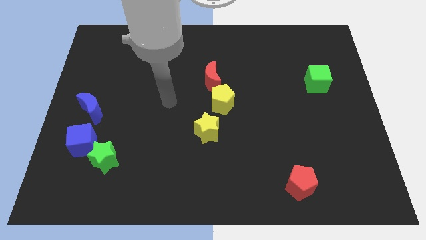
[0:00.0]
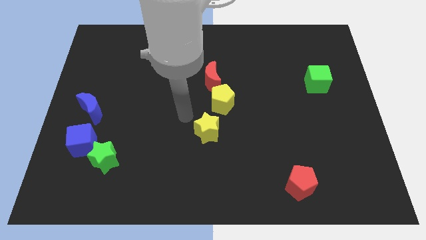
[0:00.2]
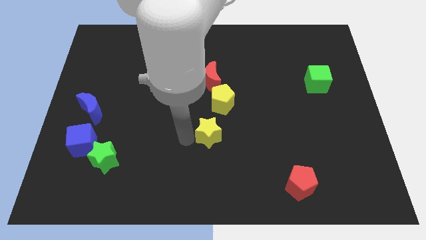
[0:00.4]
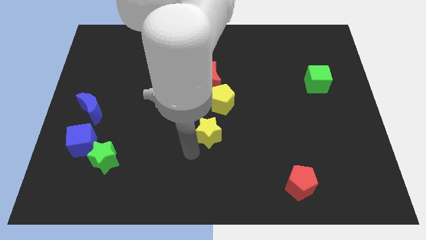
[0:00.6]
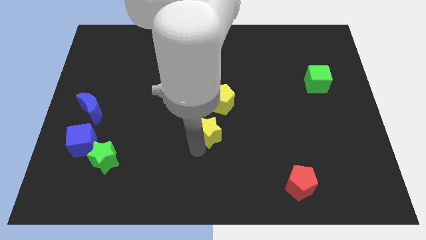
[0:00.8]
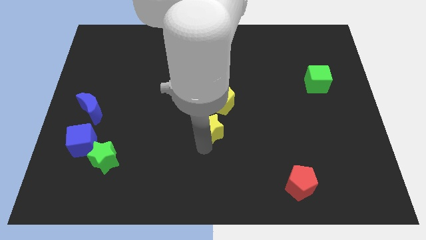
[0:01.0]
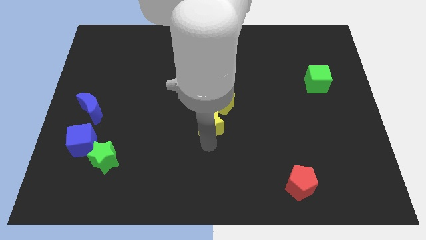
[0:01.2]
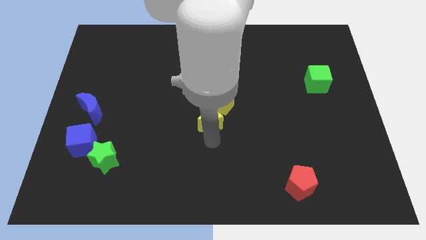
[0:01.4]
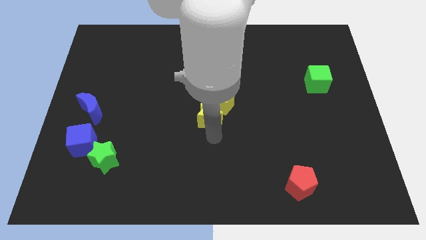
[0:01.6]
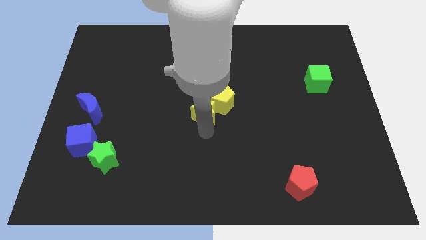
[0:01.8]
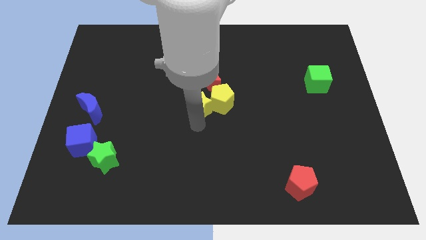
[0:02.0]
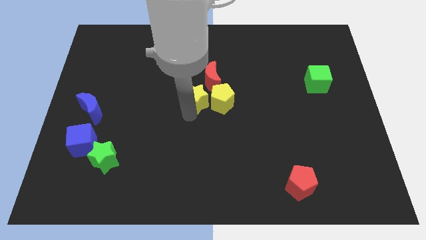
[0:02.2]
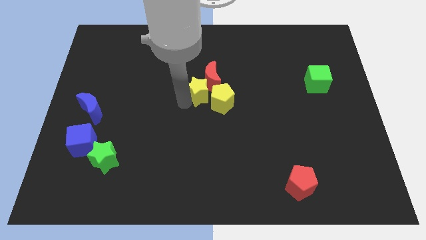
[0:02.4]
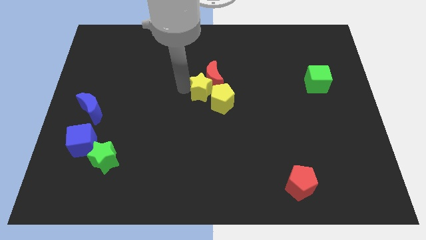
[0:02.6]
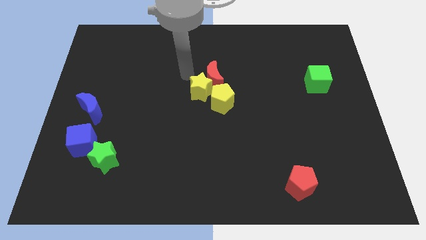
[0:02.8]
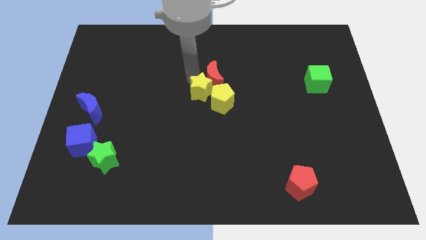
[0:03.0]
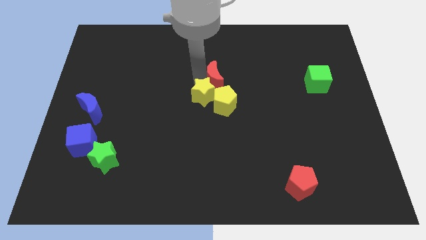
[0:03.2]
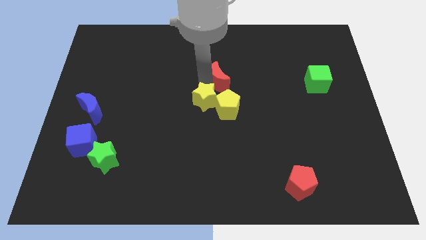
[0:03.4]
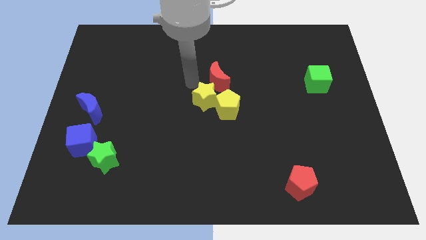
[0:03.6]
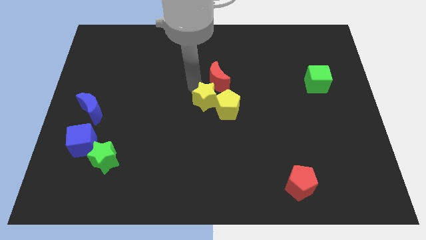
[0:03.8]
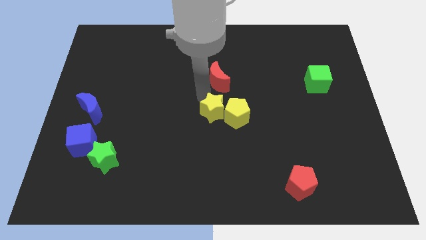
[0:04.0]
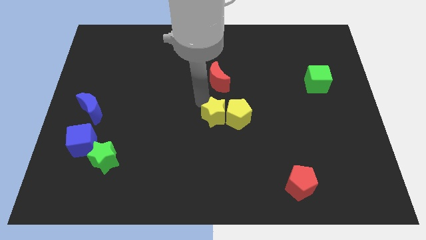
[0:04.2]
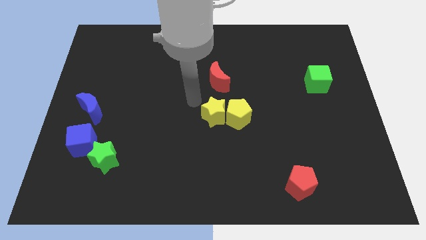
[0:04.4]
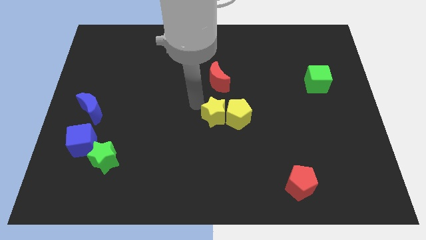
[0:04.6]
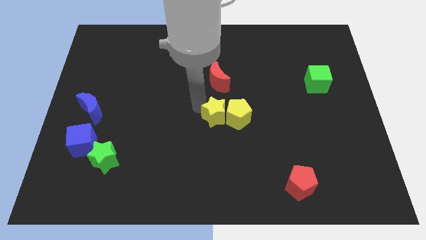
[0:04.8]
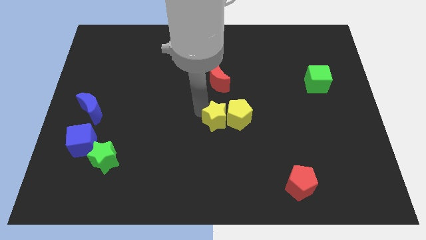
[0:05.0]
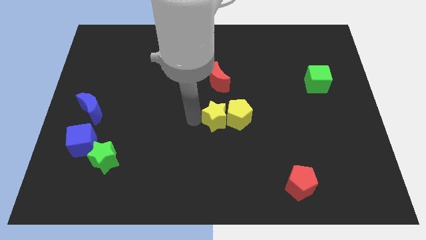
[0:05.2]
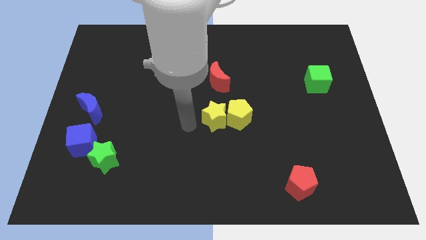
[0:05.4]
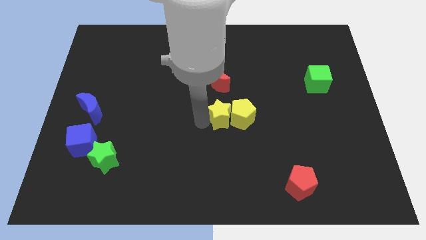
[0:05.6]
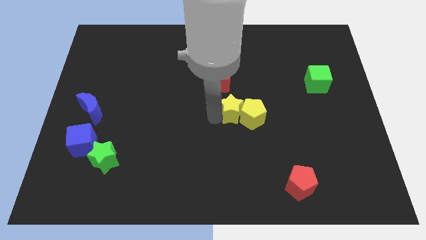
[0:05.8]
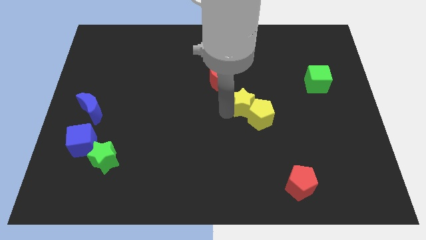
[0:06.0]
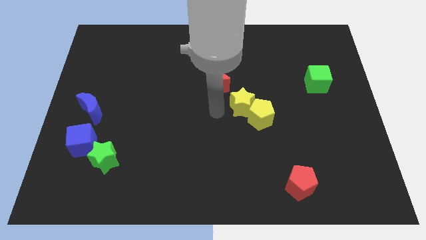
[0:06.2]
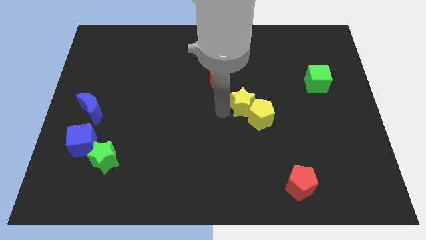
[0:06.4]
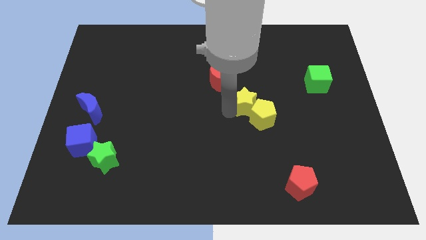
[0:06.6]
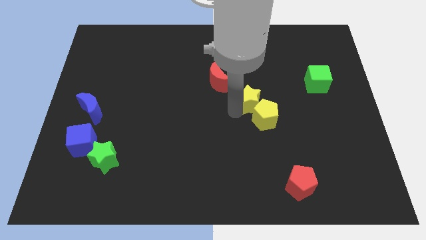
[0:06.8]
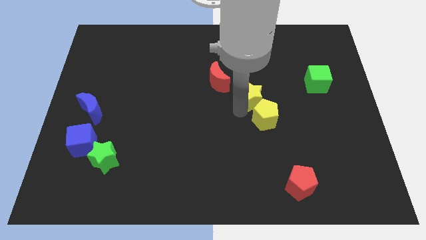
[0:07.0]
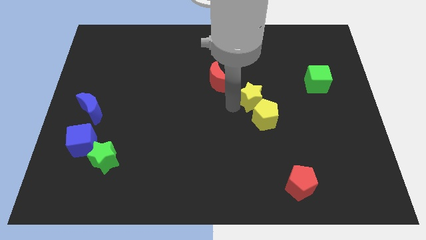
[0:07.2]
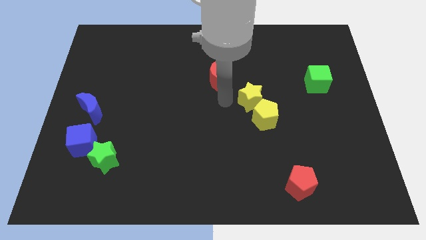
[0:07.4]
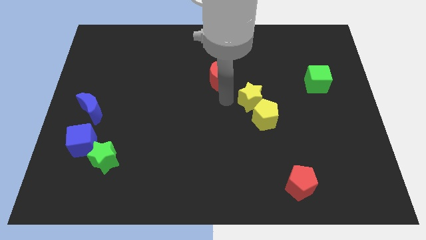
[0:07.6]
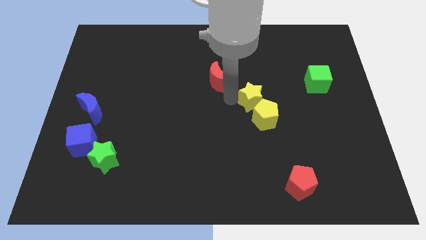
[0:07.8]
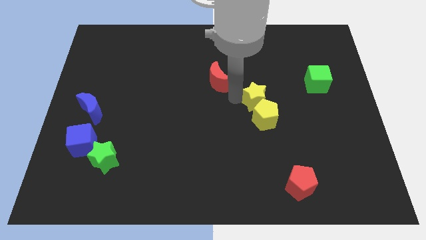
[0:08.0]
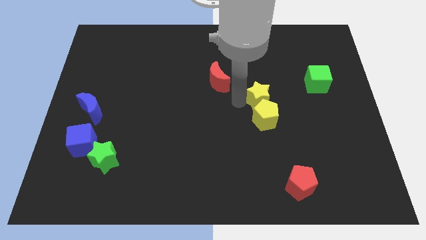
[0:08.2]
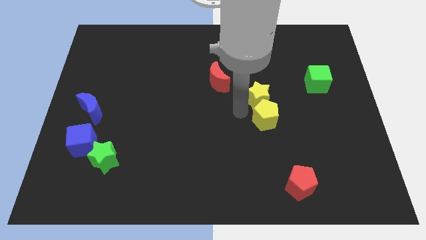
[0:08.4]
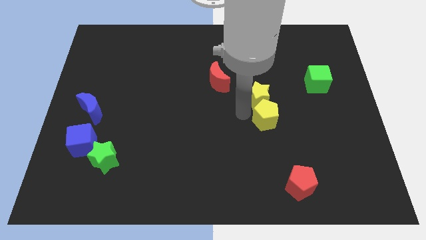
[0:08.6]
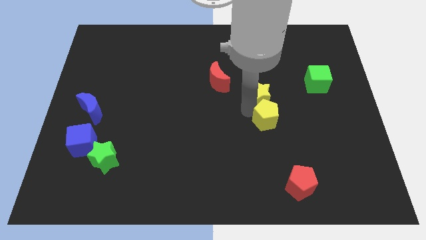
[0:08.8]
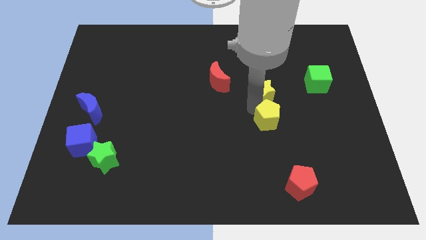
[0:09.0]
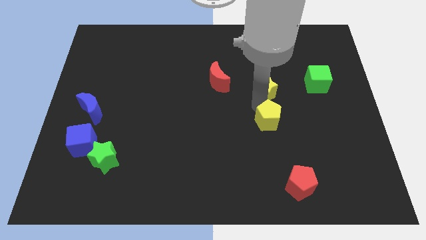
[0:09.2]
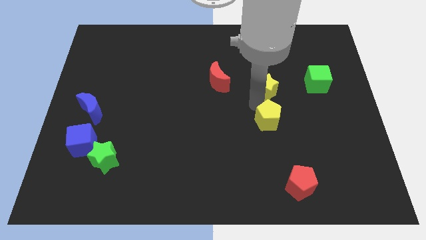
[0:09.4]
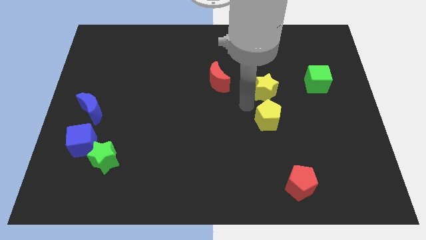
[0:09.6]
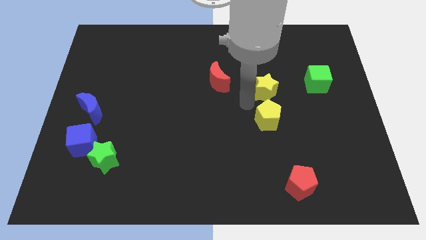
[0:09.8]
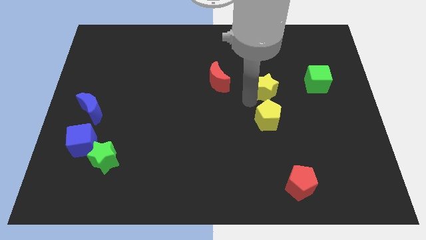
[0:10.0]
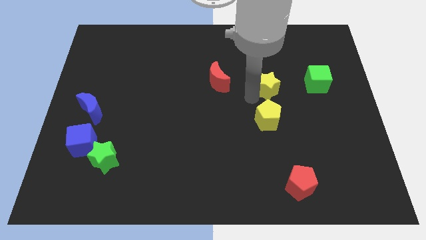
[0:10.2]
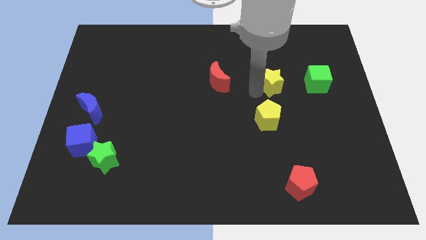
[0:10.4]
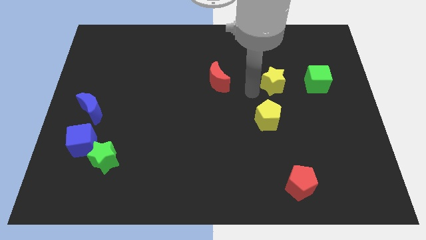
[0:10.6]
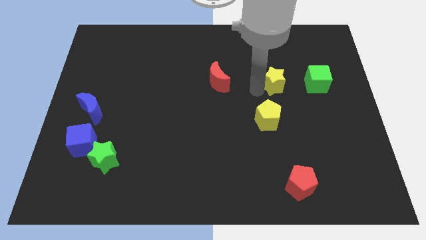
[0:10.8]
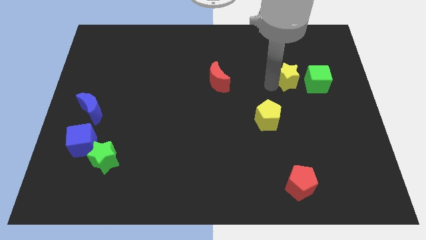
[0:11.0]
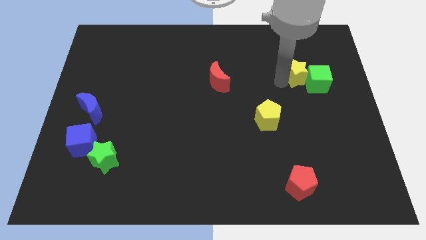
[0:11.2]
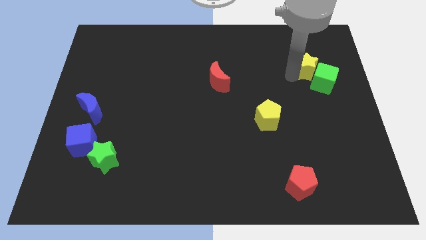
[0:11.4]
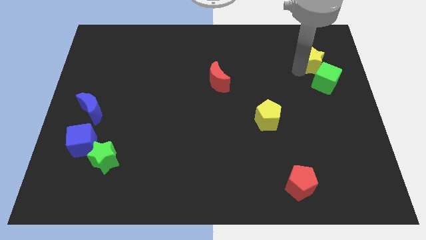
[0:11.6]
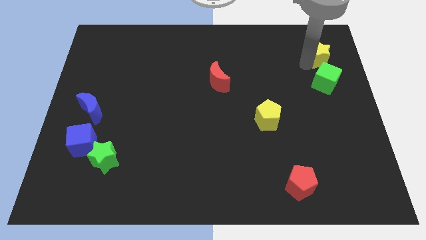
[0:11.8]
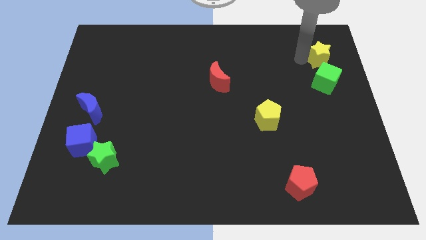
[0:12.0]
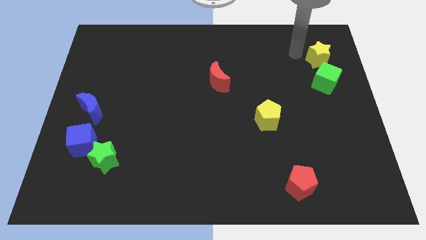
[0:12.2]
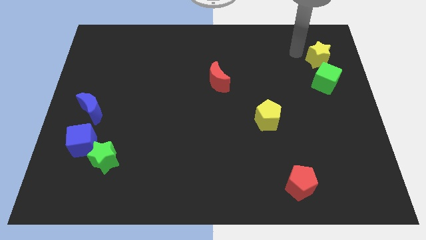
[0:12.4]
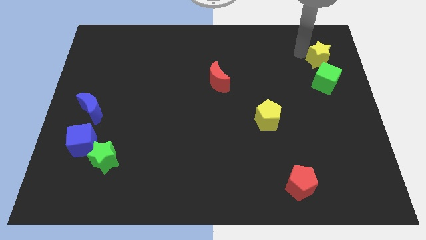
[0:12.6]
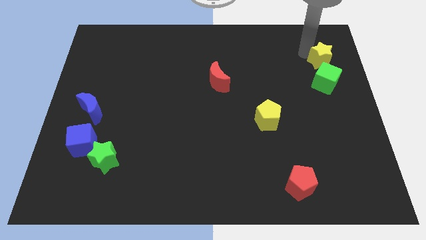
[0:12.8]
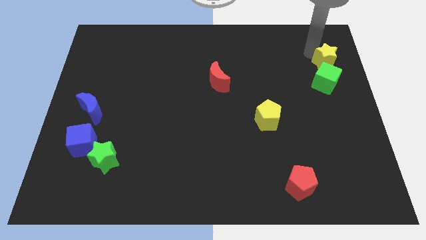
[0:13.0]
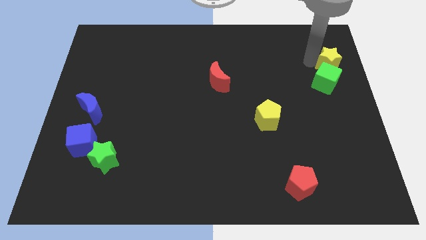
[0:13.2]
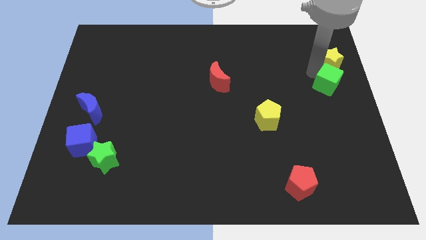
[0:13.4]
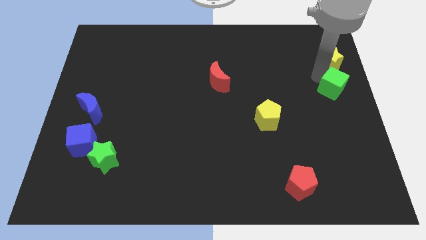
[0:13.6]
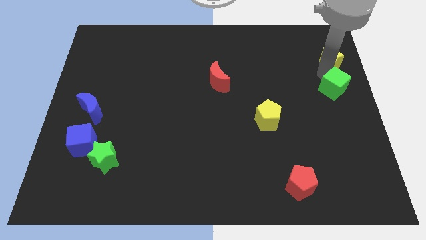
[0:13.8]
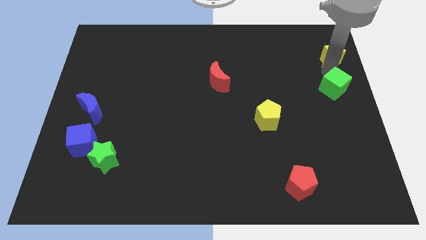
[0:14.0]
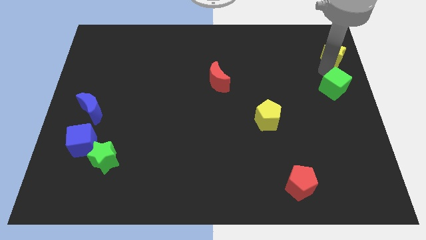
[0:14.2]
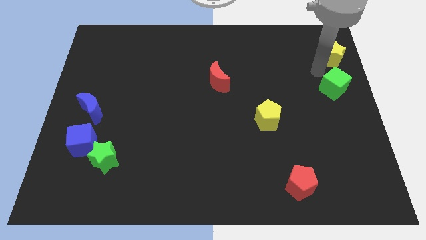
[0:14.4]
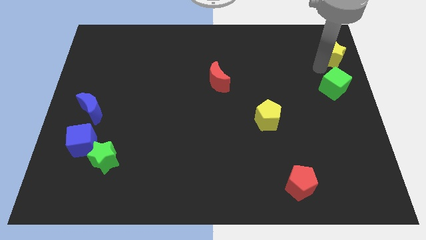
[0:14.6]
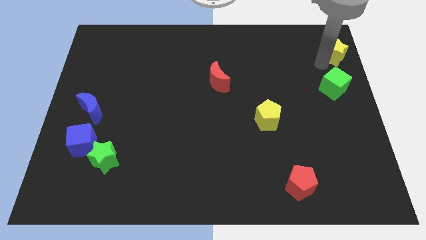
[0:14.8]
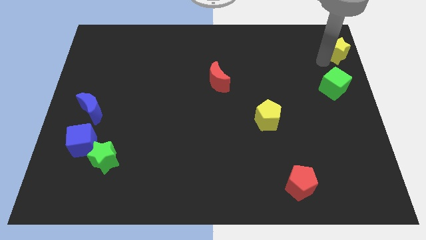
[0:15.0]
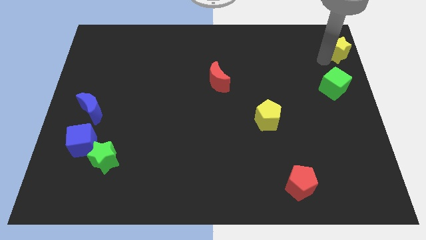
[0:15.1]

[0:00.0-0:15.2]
move the yellow star to the upper right corner

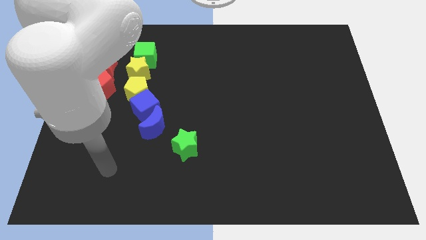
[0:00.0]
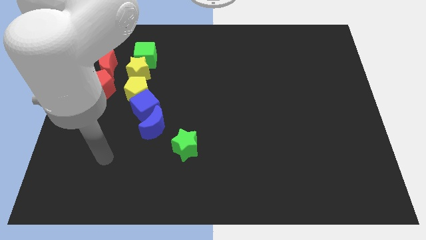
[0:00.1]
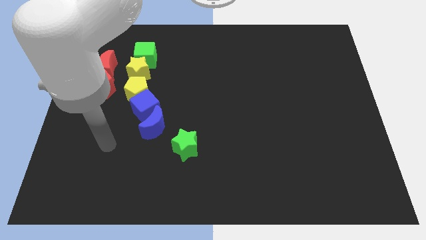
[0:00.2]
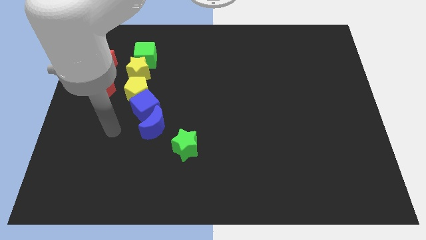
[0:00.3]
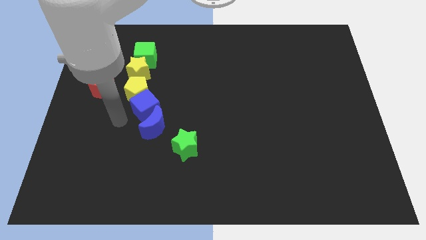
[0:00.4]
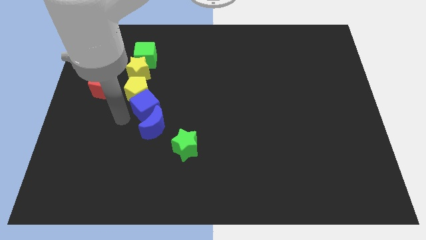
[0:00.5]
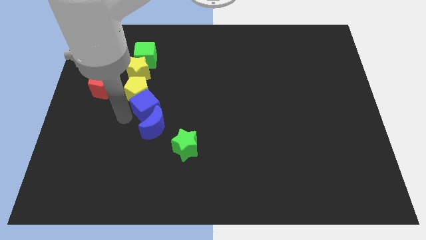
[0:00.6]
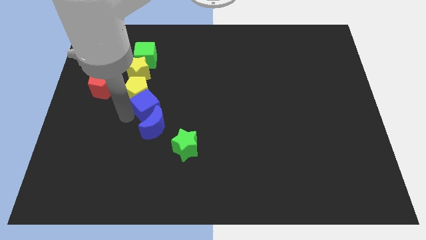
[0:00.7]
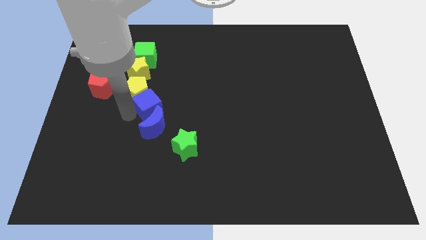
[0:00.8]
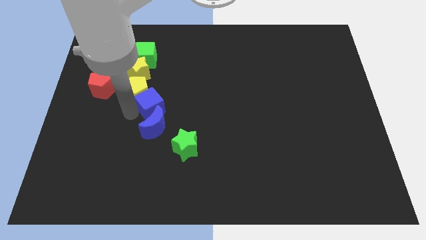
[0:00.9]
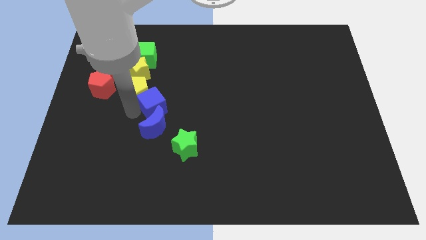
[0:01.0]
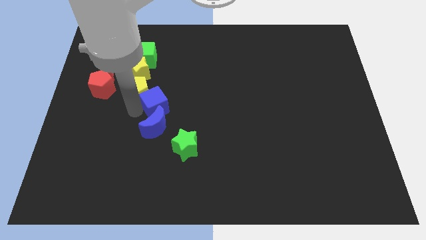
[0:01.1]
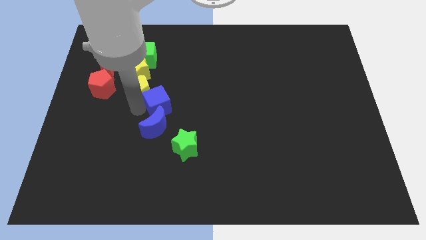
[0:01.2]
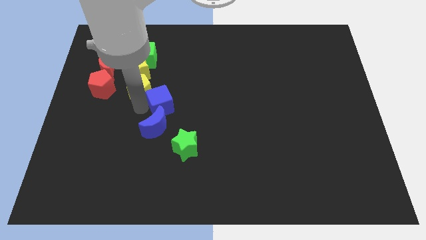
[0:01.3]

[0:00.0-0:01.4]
slide the blue cube to the middle
